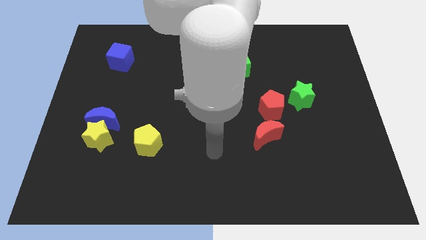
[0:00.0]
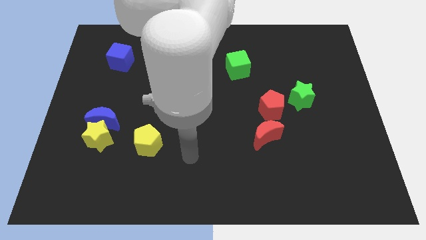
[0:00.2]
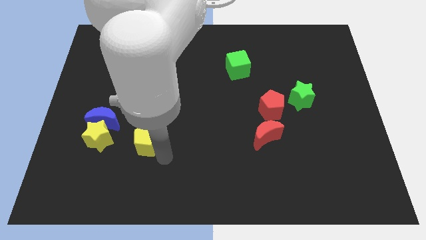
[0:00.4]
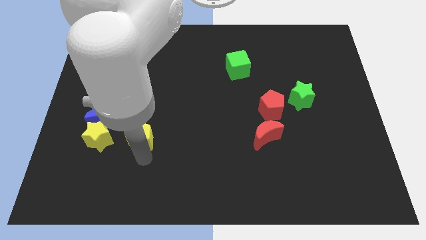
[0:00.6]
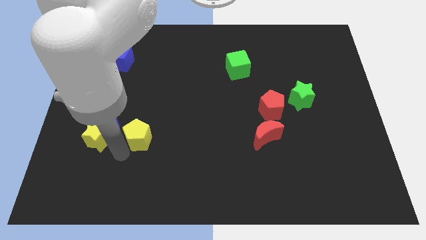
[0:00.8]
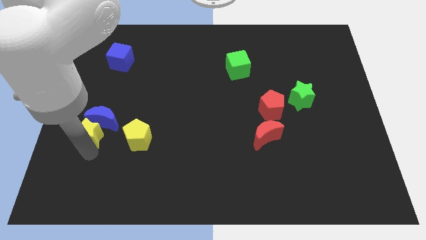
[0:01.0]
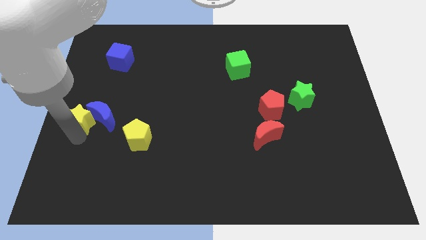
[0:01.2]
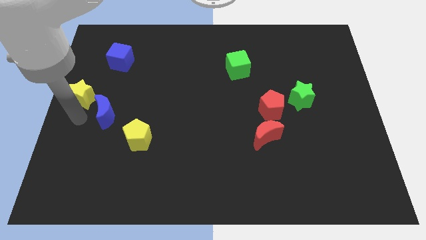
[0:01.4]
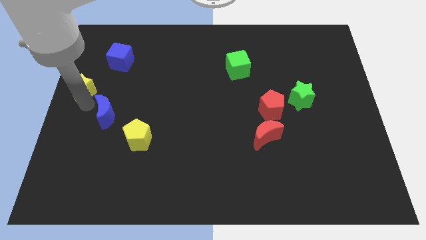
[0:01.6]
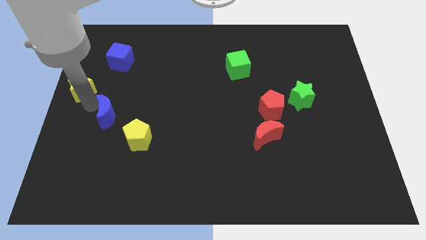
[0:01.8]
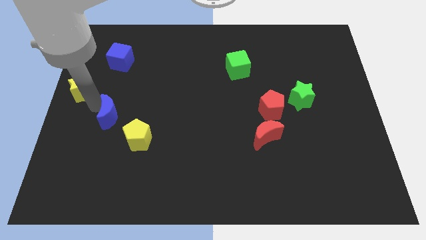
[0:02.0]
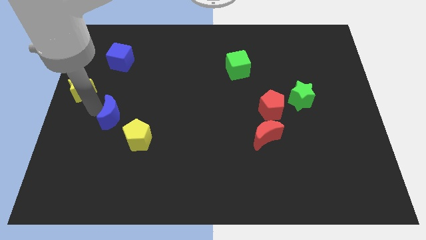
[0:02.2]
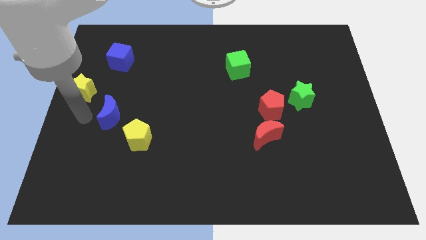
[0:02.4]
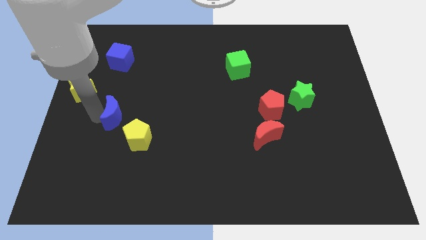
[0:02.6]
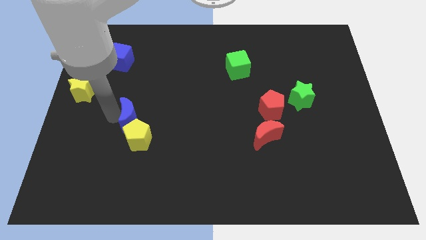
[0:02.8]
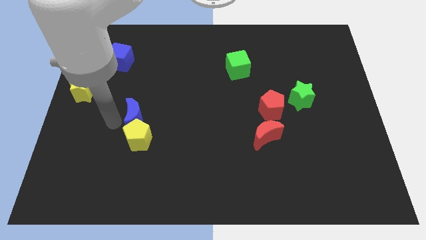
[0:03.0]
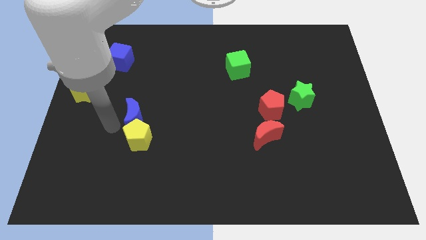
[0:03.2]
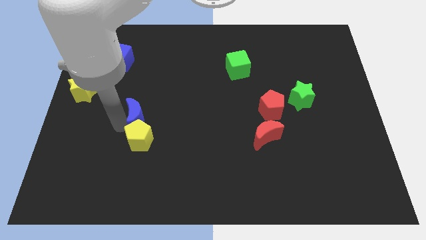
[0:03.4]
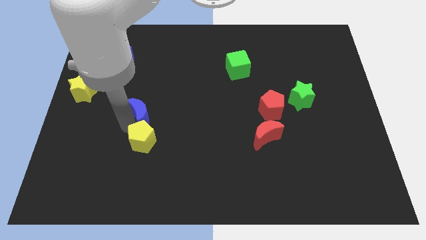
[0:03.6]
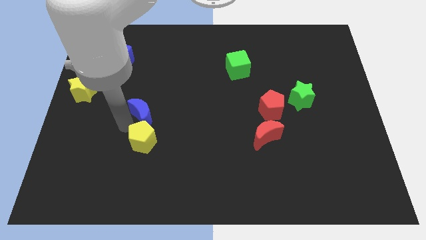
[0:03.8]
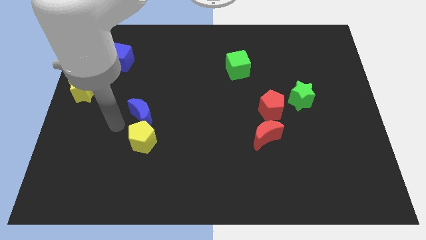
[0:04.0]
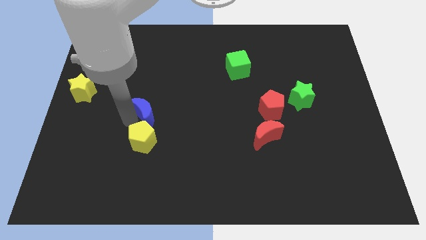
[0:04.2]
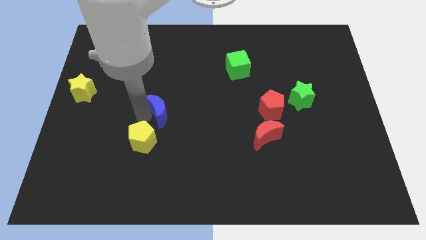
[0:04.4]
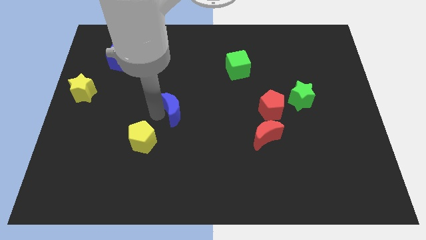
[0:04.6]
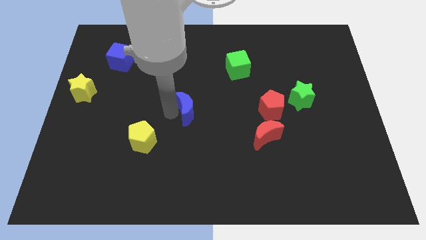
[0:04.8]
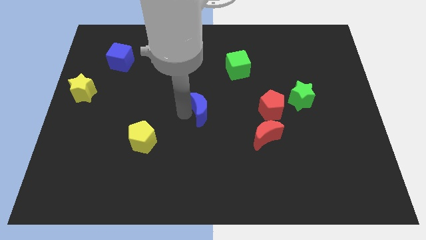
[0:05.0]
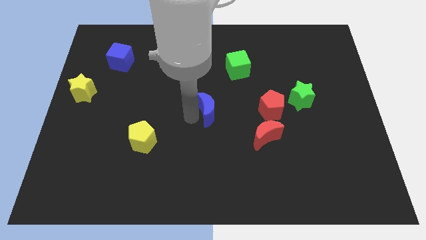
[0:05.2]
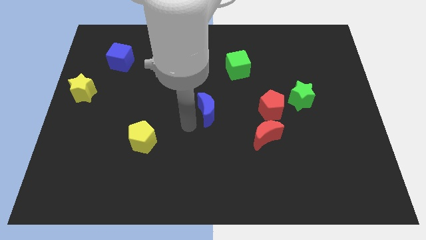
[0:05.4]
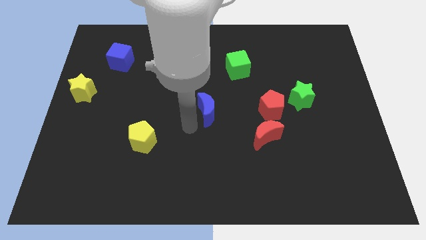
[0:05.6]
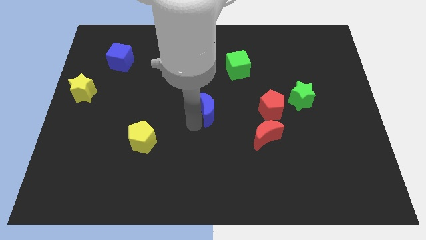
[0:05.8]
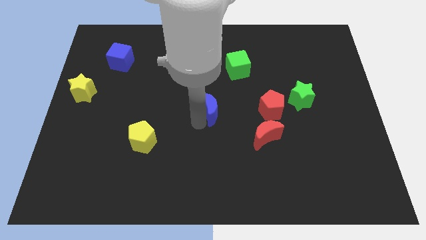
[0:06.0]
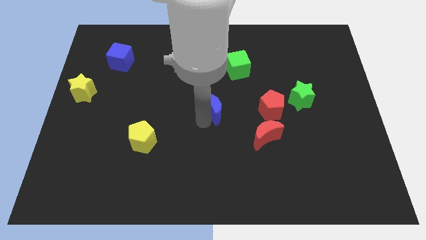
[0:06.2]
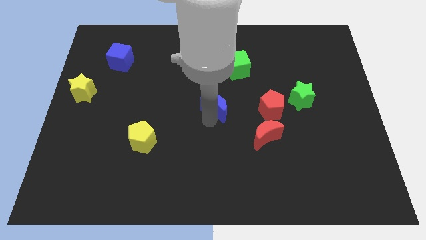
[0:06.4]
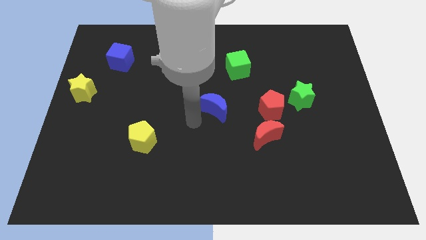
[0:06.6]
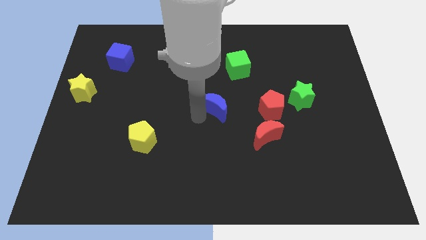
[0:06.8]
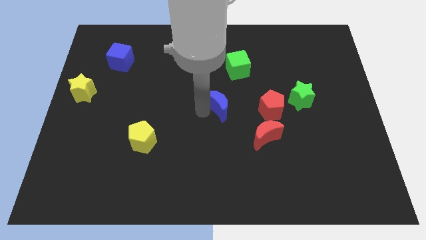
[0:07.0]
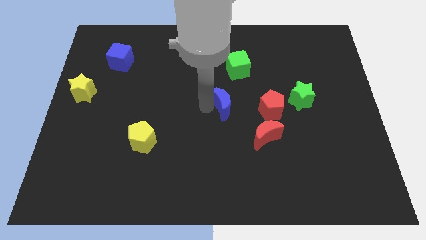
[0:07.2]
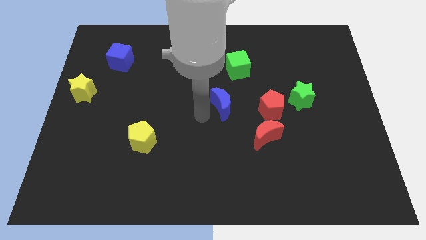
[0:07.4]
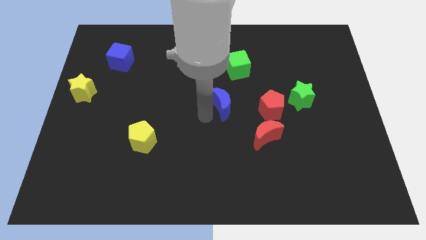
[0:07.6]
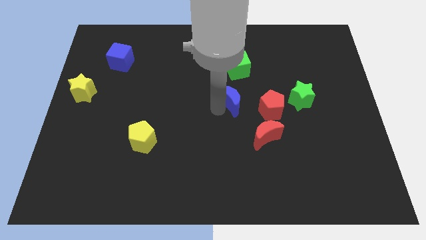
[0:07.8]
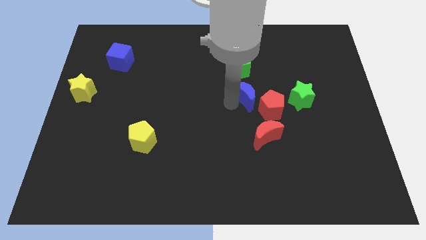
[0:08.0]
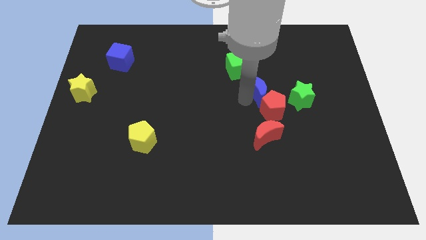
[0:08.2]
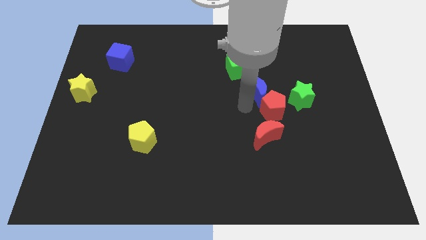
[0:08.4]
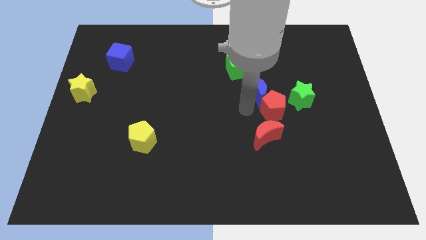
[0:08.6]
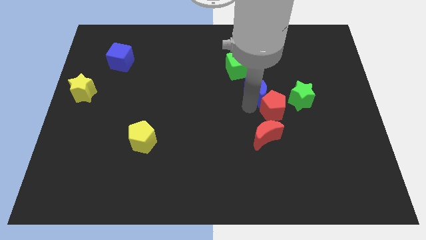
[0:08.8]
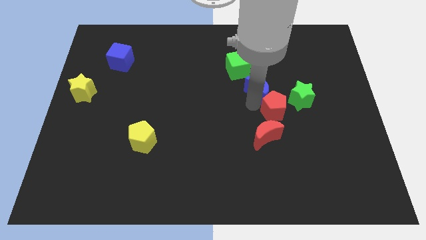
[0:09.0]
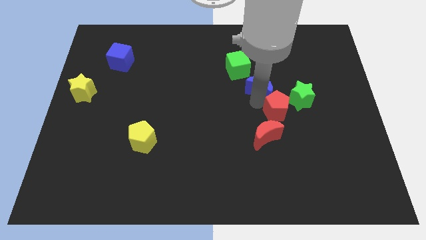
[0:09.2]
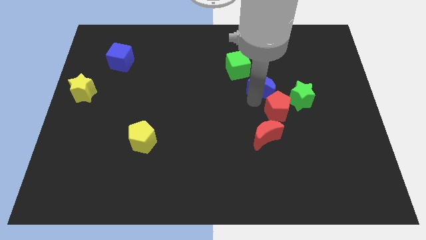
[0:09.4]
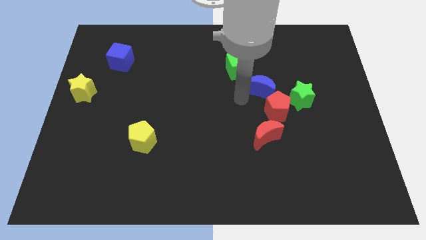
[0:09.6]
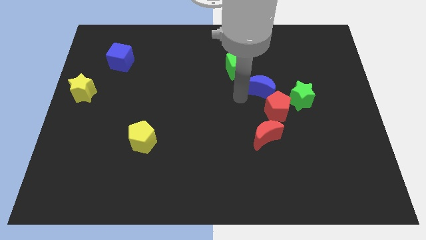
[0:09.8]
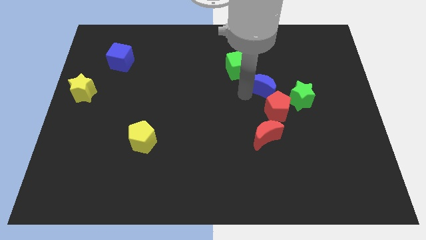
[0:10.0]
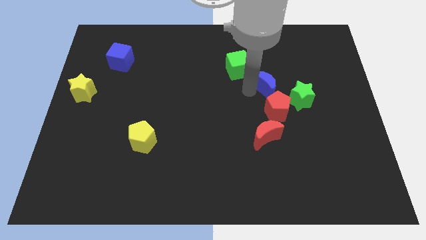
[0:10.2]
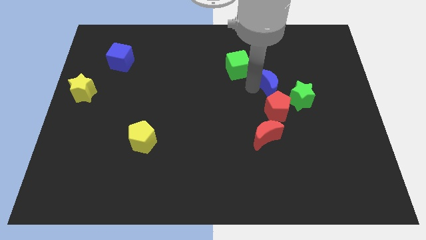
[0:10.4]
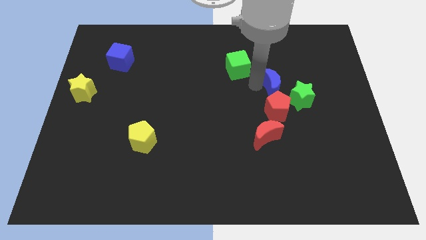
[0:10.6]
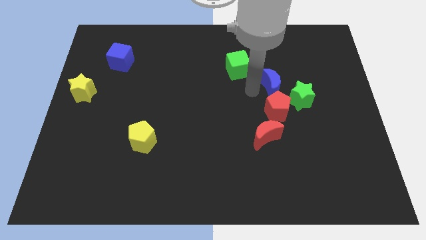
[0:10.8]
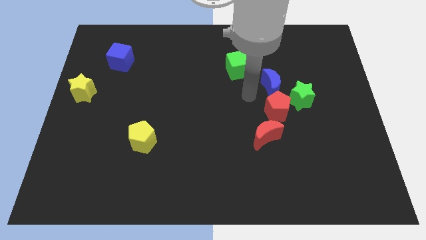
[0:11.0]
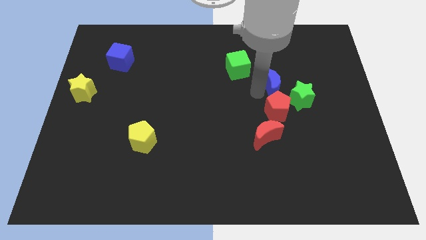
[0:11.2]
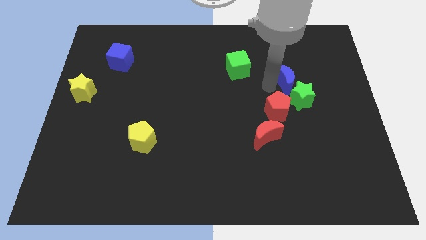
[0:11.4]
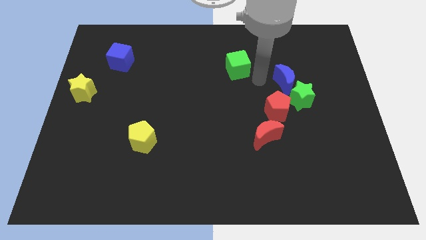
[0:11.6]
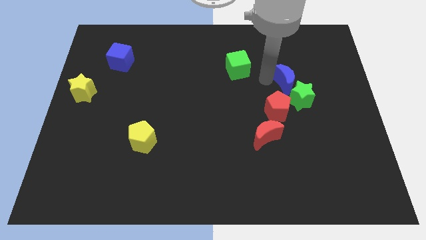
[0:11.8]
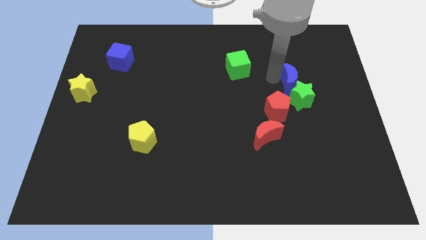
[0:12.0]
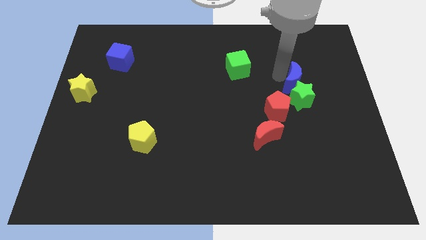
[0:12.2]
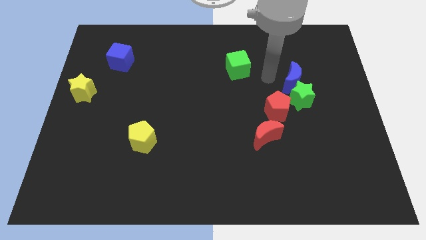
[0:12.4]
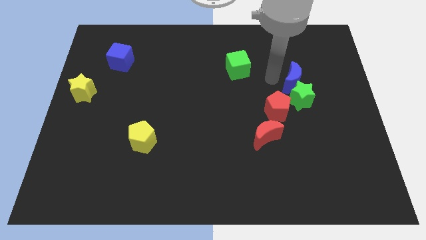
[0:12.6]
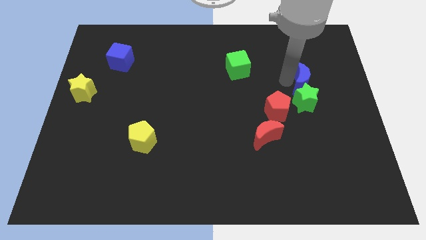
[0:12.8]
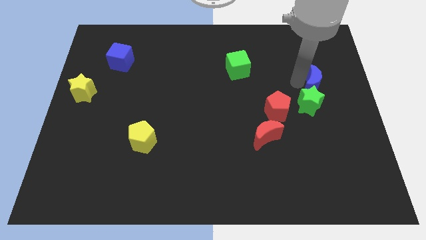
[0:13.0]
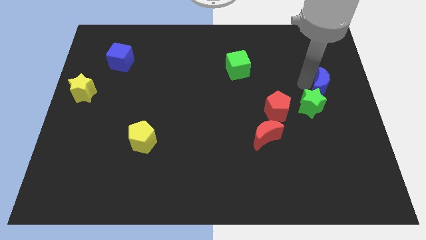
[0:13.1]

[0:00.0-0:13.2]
move the blue moon to the center right

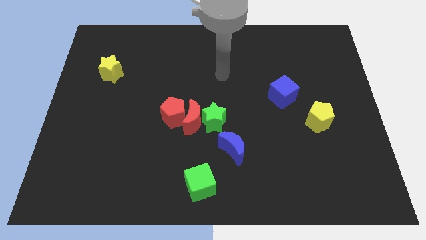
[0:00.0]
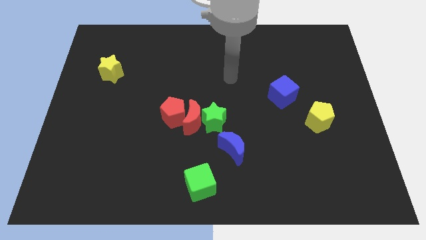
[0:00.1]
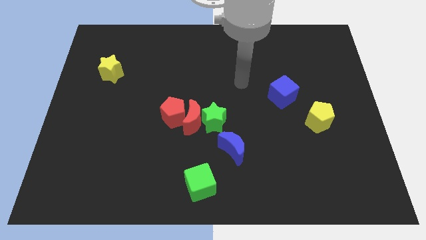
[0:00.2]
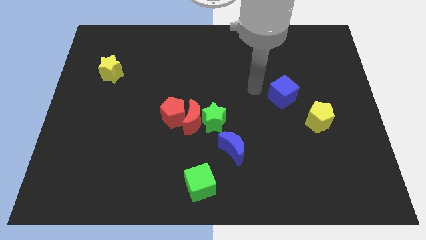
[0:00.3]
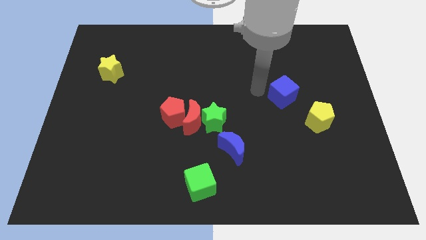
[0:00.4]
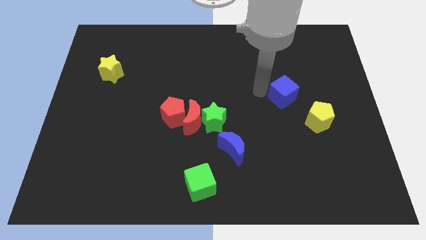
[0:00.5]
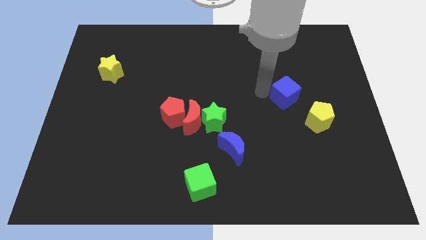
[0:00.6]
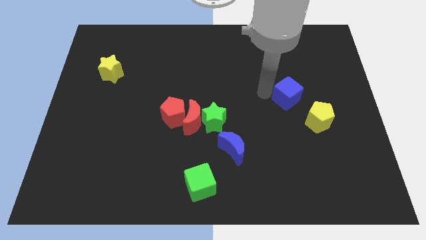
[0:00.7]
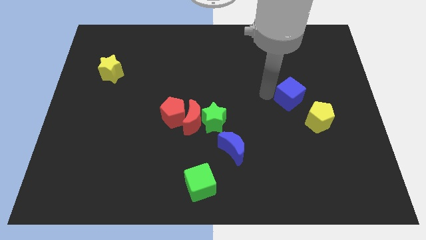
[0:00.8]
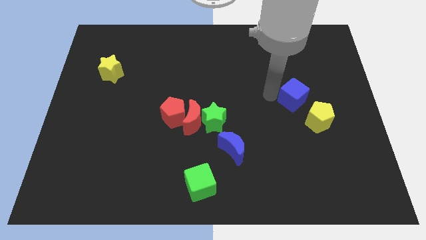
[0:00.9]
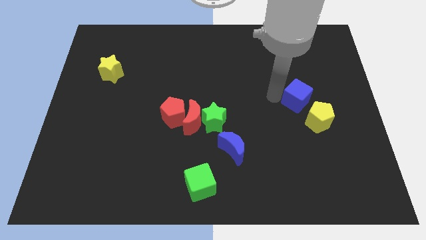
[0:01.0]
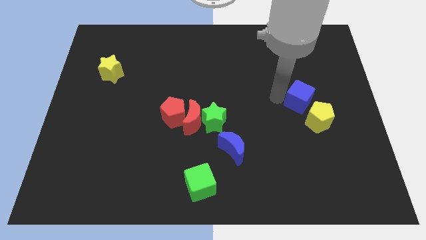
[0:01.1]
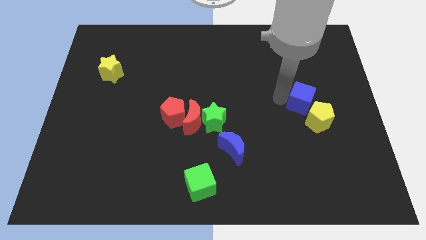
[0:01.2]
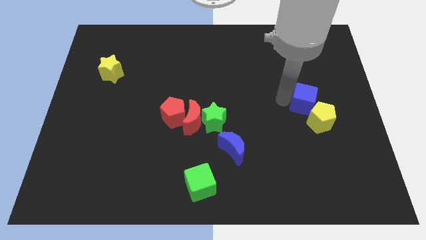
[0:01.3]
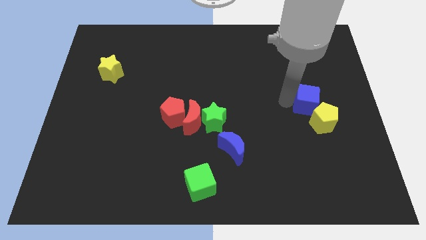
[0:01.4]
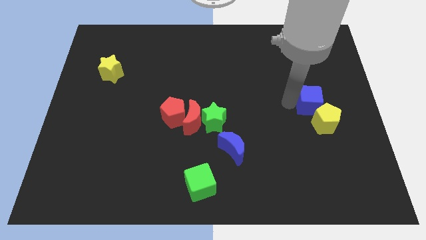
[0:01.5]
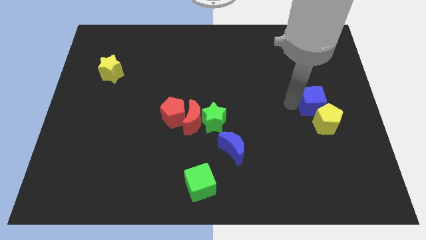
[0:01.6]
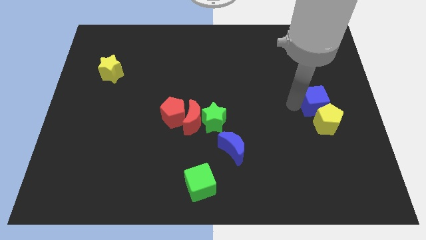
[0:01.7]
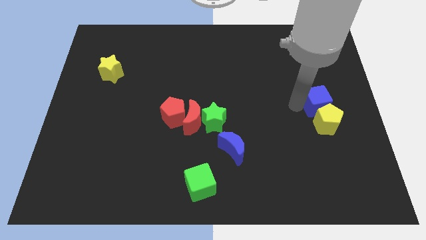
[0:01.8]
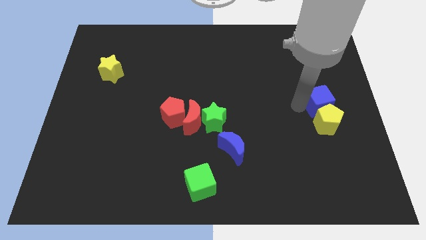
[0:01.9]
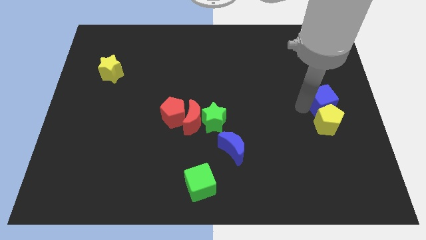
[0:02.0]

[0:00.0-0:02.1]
push the blue cube to the right side
